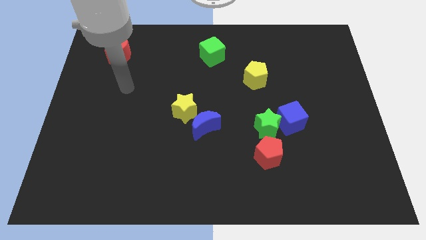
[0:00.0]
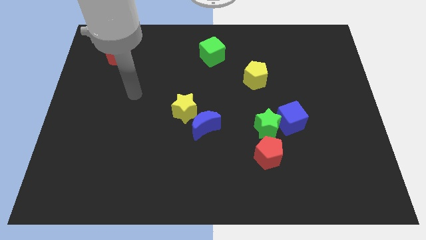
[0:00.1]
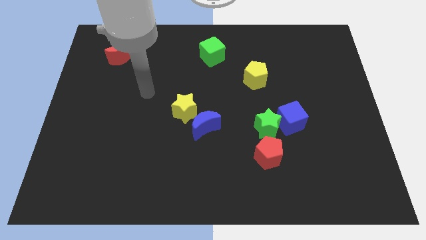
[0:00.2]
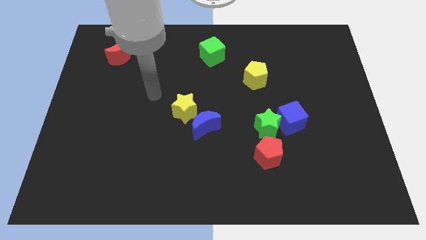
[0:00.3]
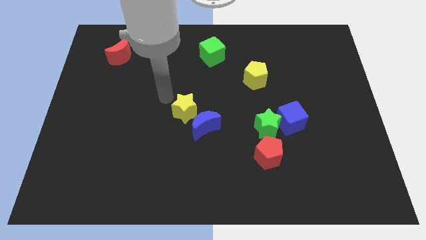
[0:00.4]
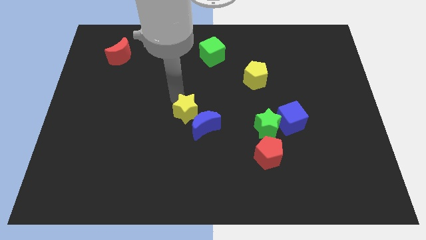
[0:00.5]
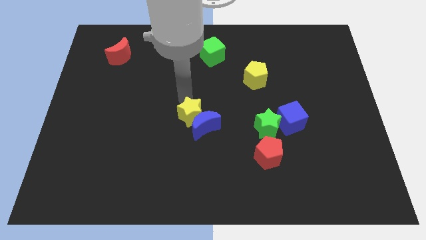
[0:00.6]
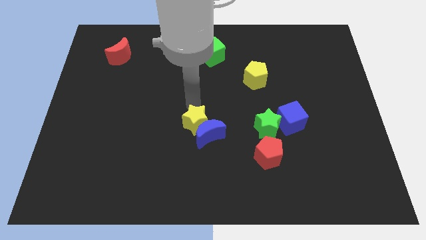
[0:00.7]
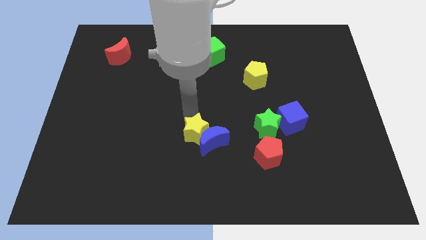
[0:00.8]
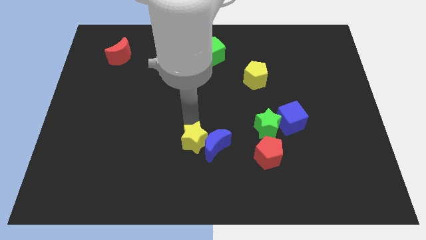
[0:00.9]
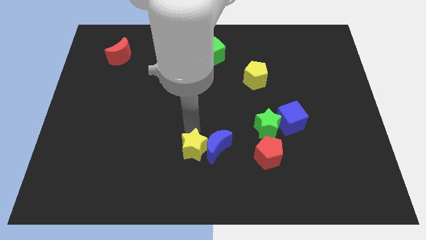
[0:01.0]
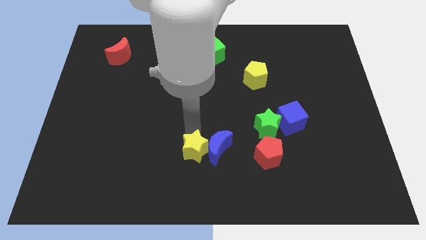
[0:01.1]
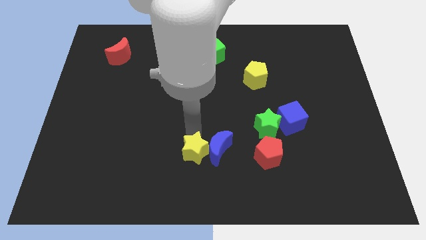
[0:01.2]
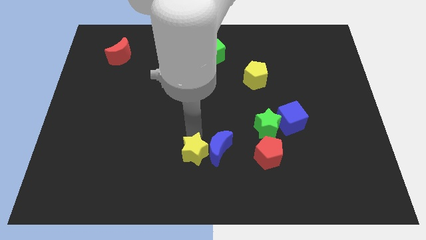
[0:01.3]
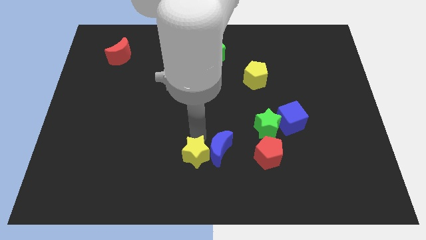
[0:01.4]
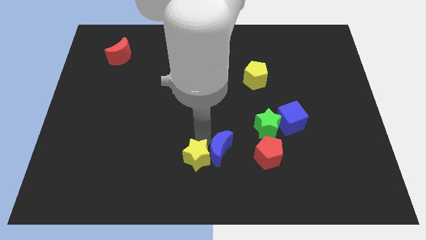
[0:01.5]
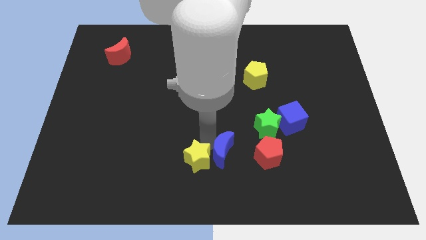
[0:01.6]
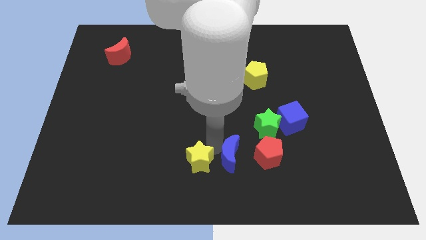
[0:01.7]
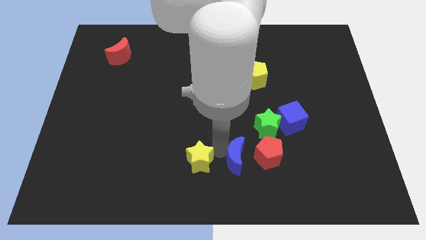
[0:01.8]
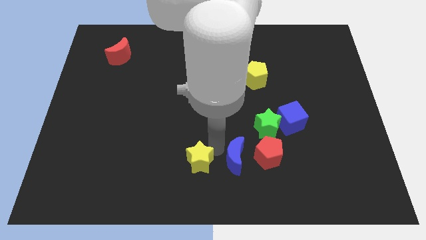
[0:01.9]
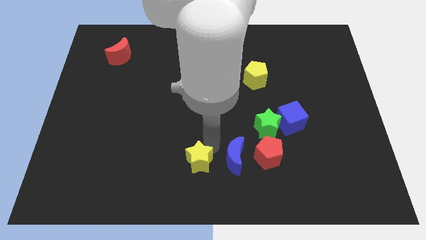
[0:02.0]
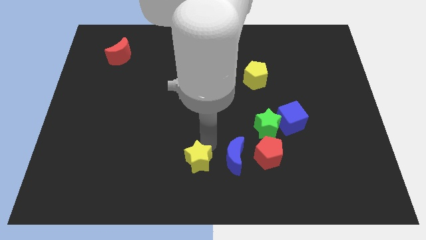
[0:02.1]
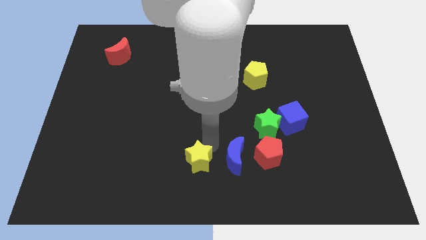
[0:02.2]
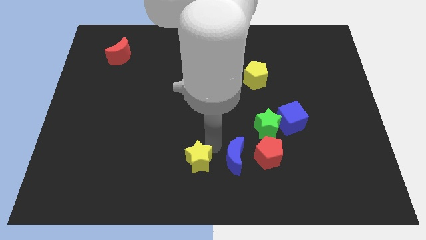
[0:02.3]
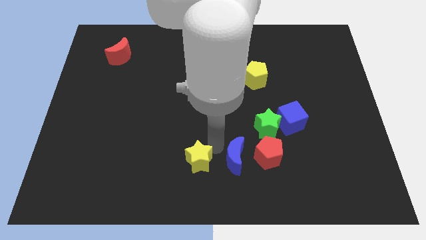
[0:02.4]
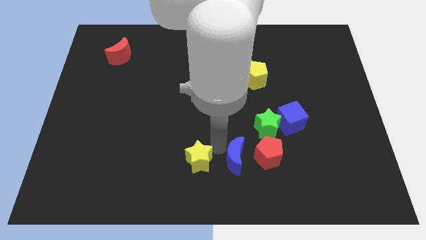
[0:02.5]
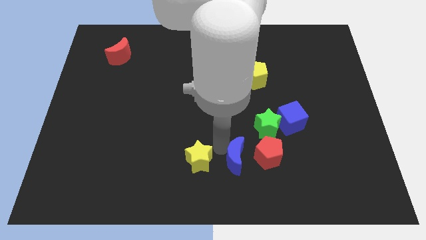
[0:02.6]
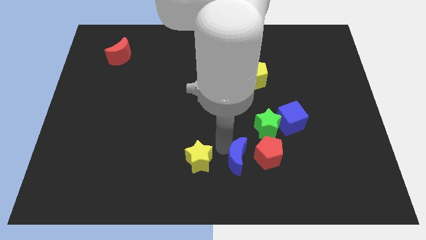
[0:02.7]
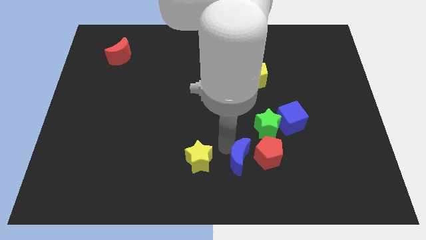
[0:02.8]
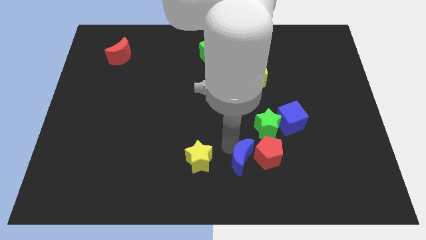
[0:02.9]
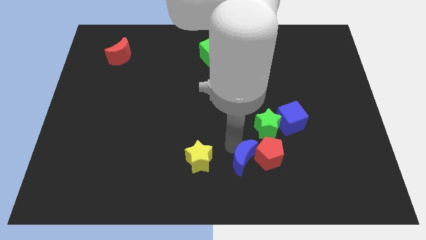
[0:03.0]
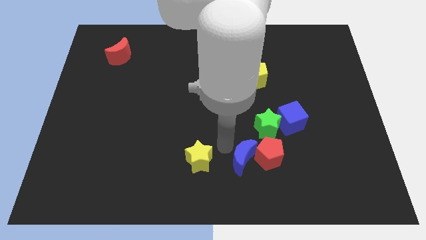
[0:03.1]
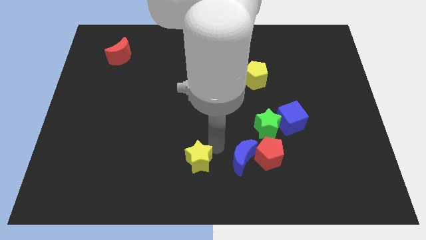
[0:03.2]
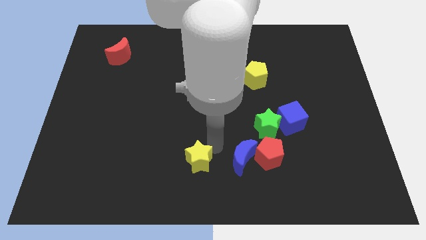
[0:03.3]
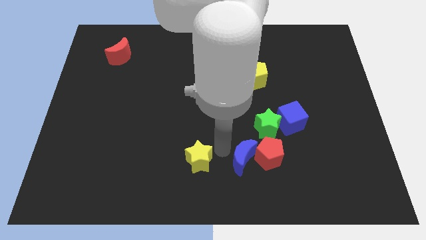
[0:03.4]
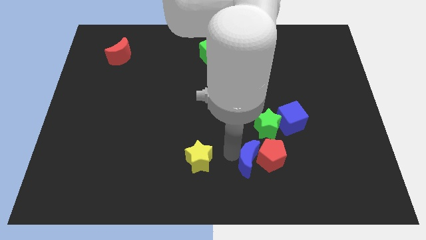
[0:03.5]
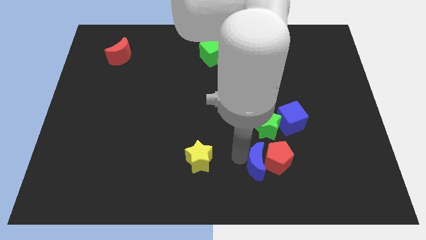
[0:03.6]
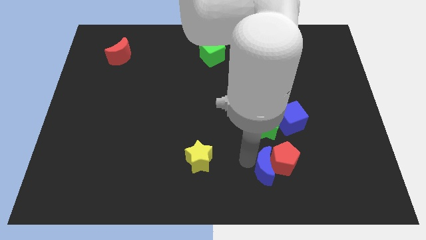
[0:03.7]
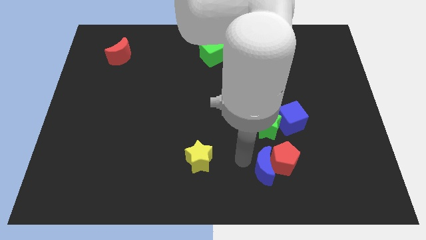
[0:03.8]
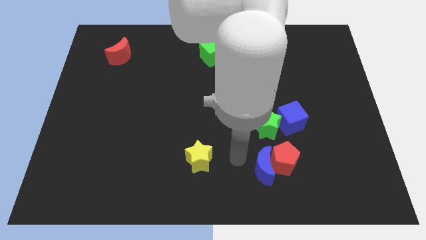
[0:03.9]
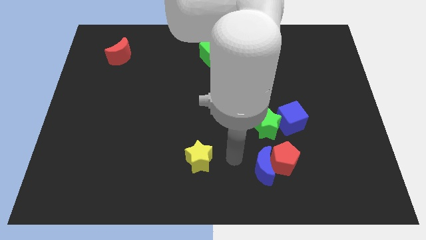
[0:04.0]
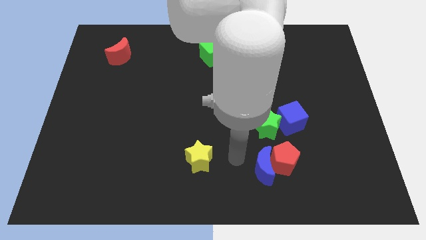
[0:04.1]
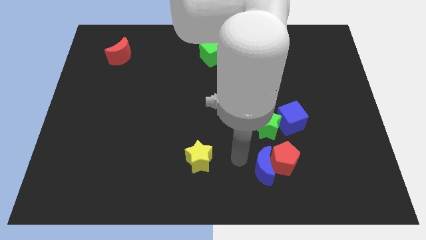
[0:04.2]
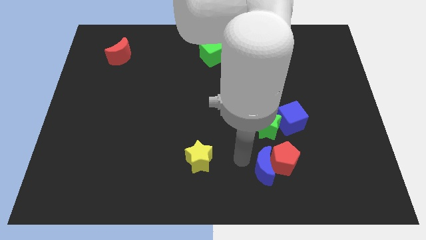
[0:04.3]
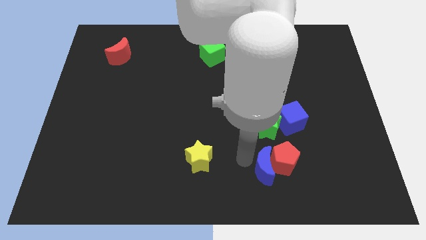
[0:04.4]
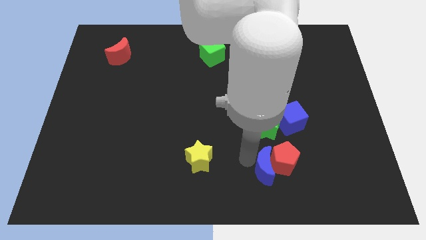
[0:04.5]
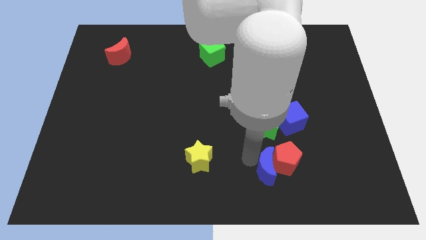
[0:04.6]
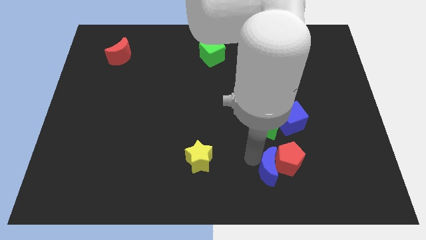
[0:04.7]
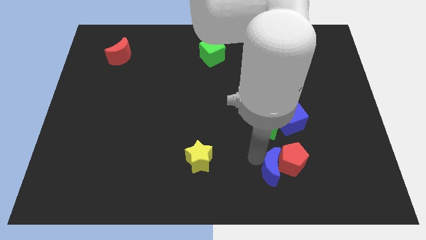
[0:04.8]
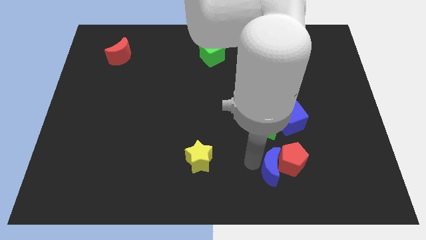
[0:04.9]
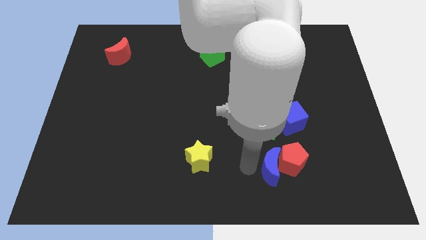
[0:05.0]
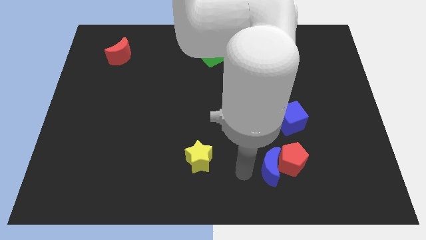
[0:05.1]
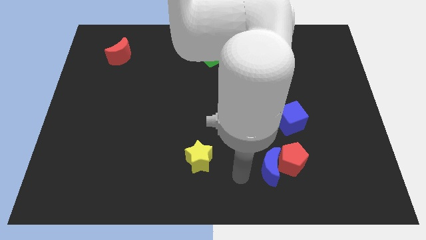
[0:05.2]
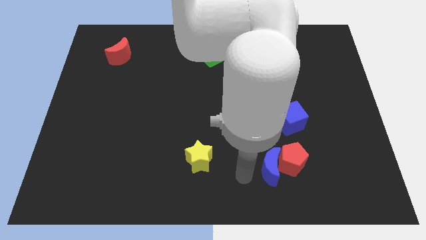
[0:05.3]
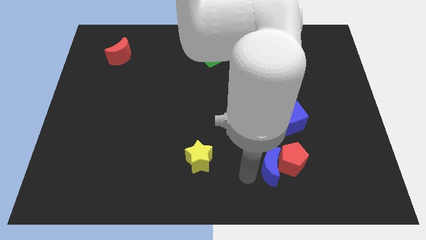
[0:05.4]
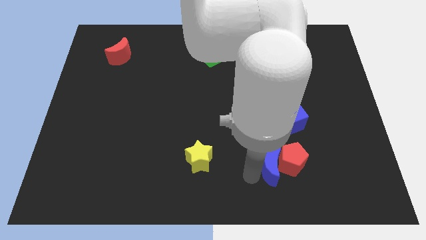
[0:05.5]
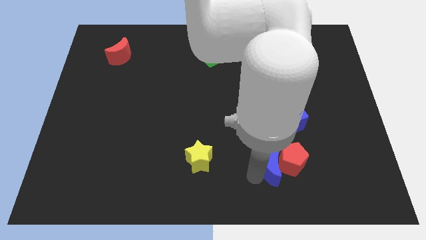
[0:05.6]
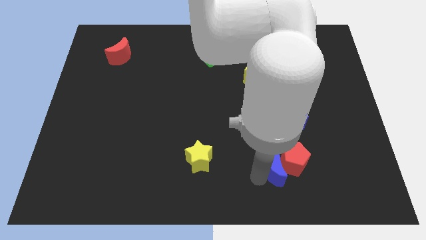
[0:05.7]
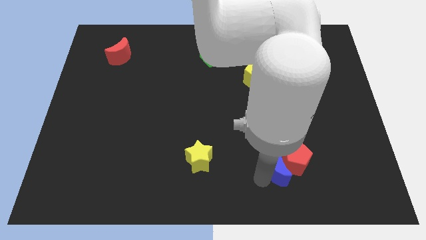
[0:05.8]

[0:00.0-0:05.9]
put the blue moon below the blue cube

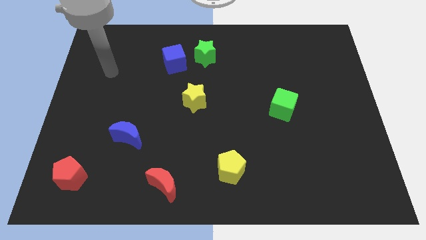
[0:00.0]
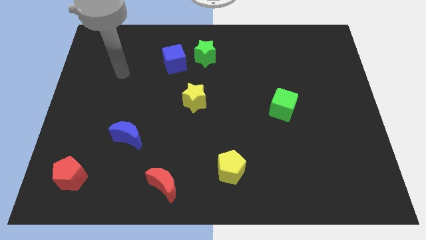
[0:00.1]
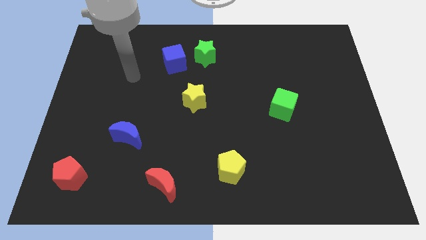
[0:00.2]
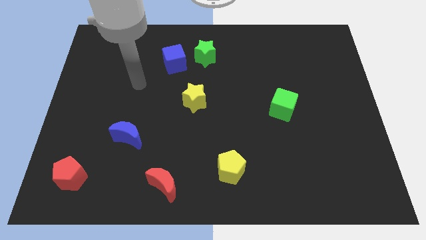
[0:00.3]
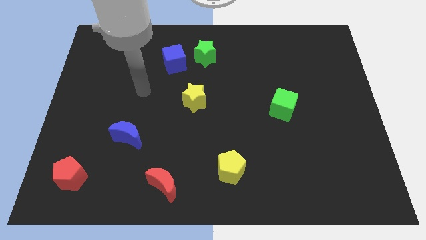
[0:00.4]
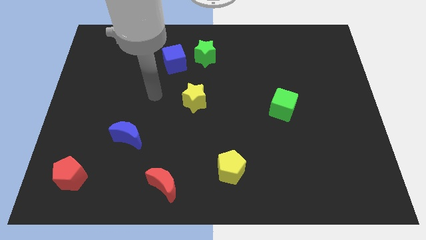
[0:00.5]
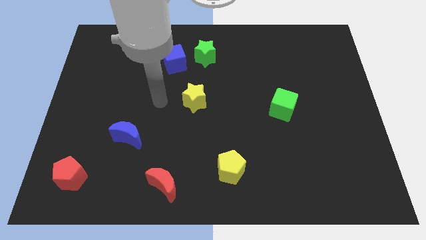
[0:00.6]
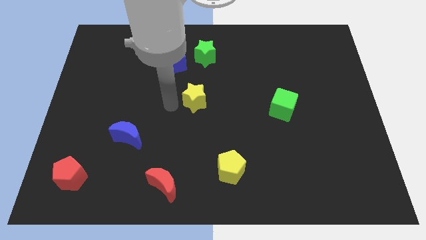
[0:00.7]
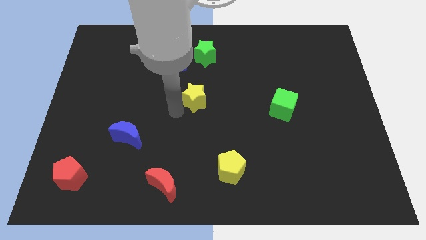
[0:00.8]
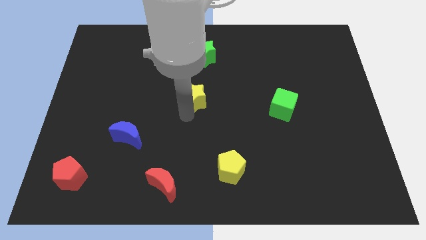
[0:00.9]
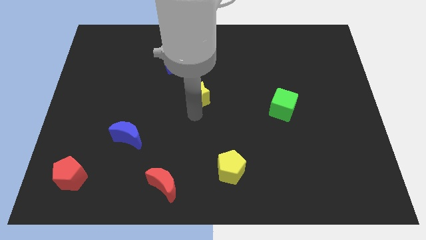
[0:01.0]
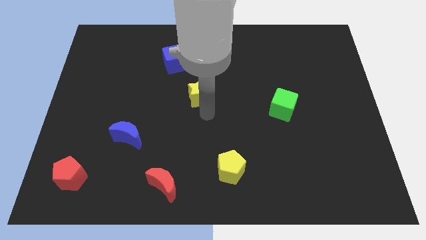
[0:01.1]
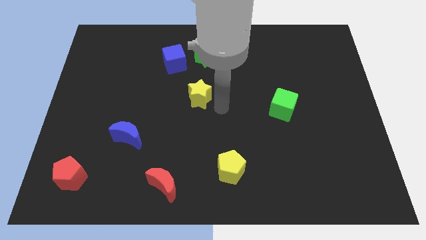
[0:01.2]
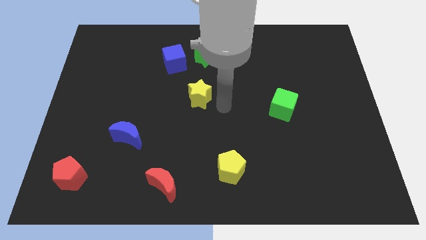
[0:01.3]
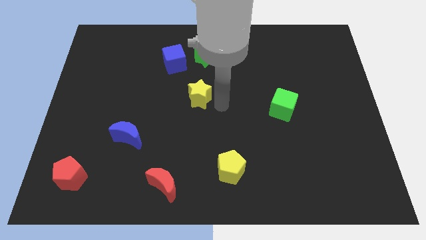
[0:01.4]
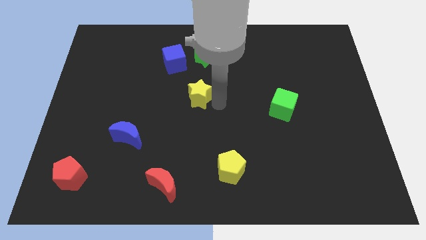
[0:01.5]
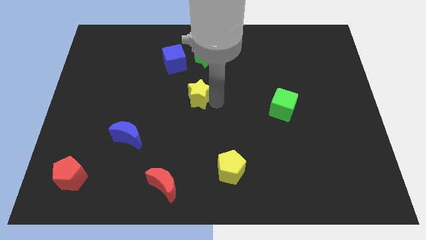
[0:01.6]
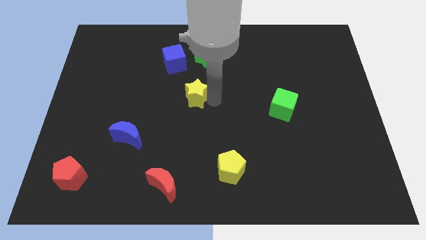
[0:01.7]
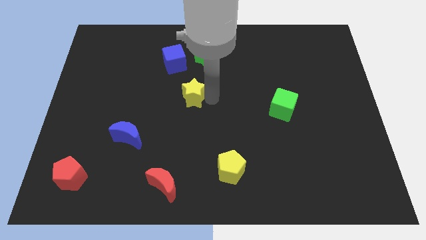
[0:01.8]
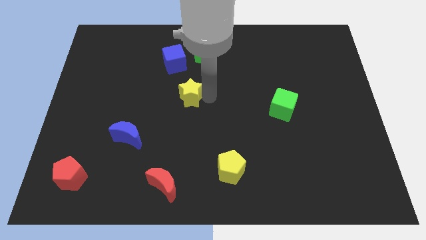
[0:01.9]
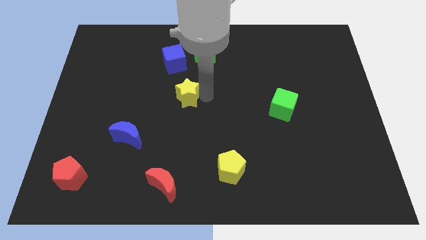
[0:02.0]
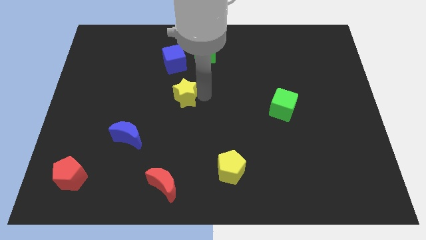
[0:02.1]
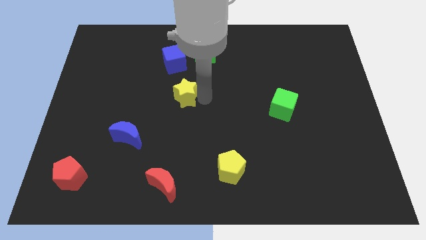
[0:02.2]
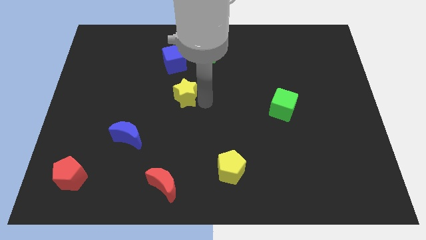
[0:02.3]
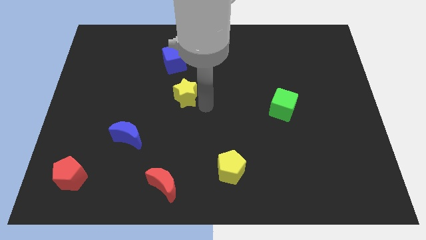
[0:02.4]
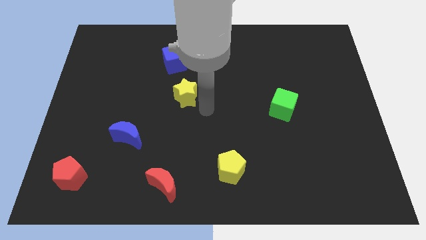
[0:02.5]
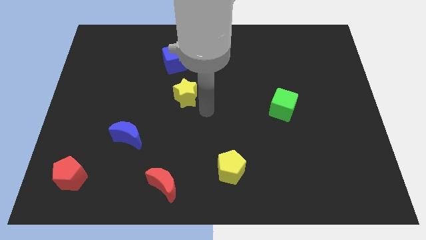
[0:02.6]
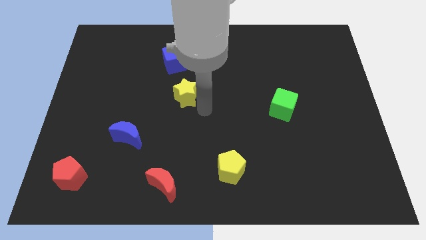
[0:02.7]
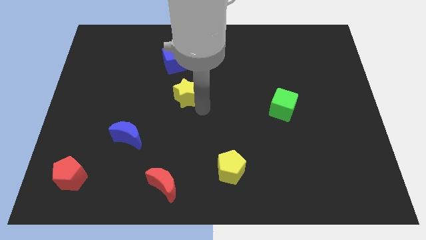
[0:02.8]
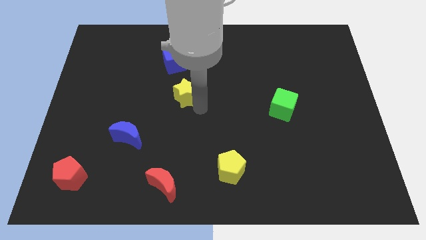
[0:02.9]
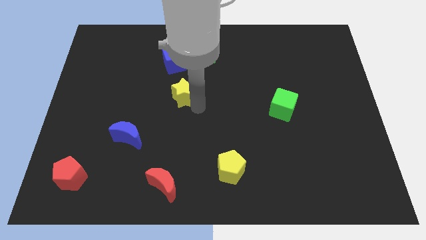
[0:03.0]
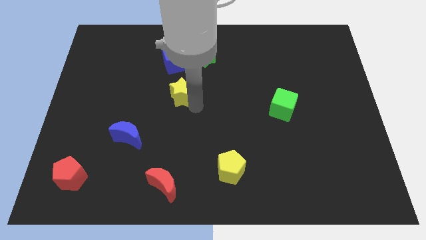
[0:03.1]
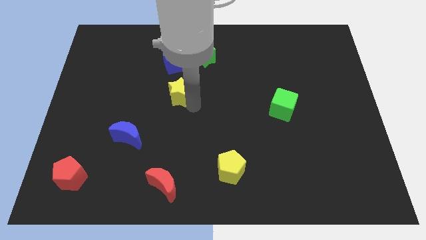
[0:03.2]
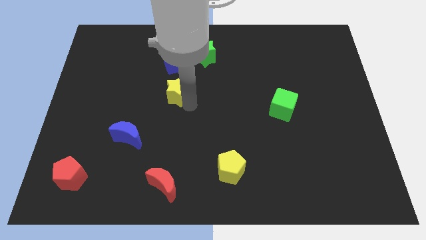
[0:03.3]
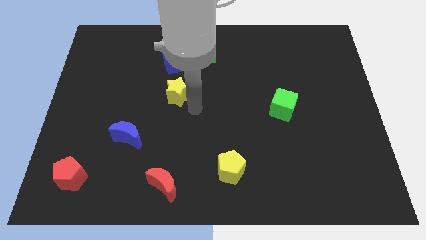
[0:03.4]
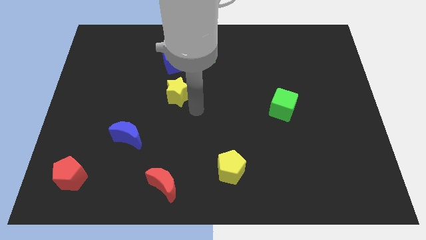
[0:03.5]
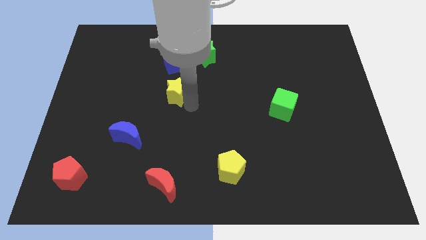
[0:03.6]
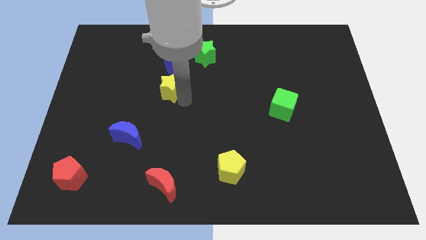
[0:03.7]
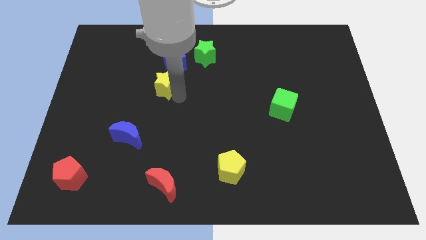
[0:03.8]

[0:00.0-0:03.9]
push the yellow star diagonally down and to the left of the blue cube
